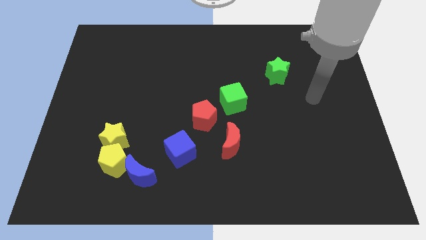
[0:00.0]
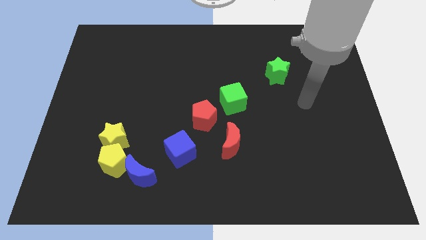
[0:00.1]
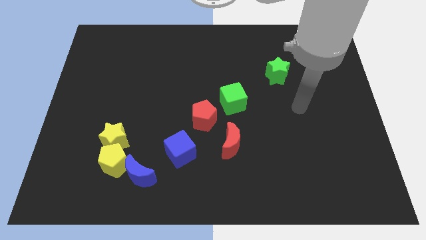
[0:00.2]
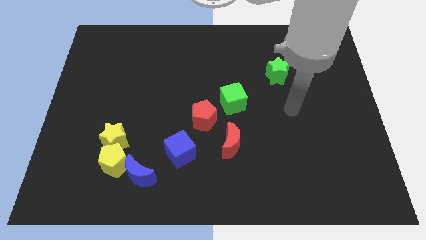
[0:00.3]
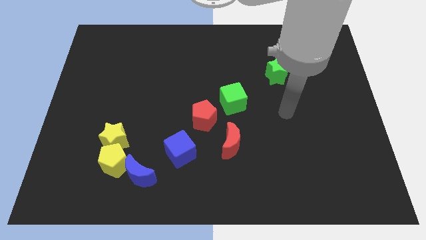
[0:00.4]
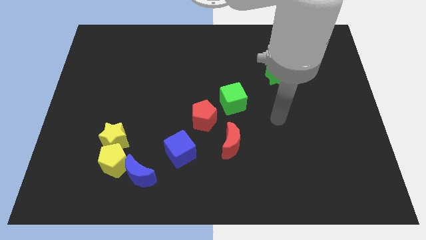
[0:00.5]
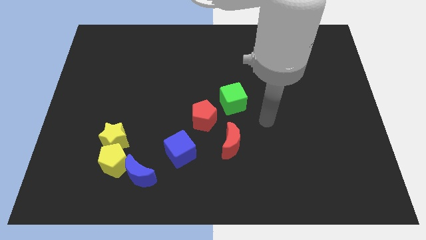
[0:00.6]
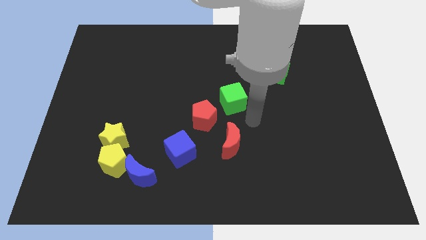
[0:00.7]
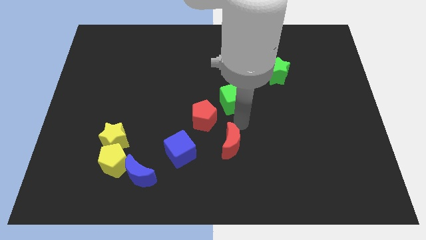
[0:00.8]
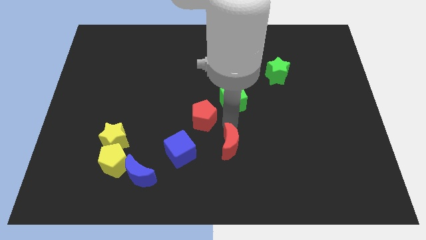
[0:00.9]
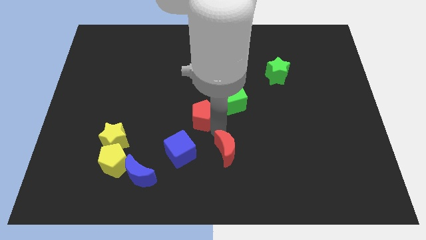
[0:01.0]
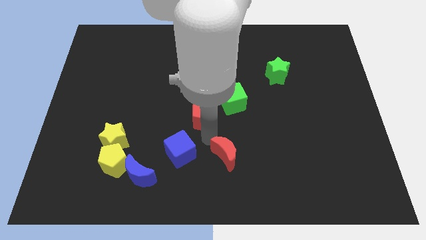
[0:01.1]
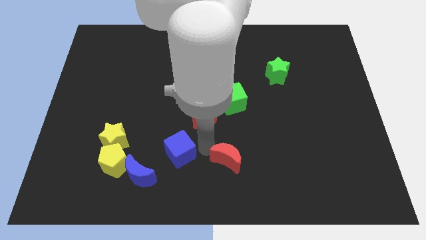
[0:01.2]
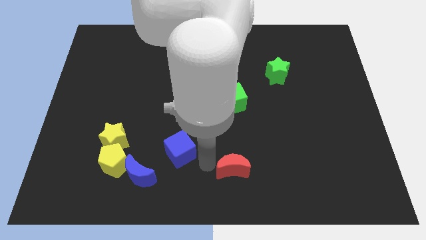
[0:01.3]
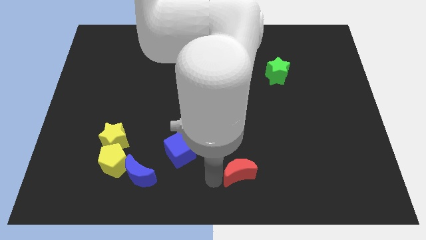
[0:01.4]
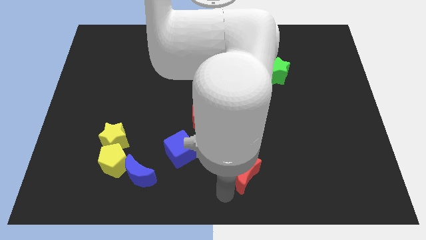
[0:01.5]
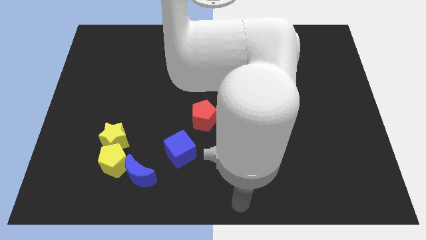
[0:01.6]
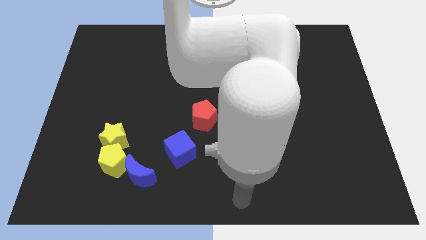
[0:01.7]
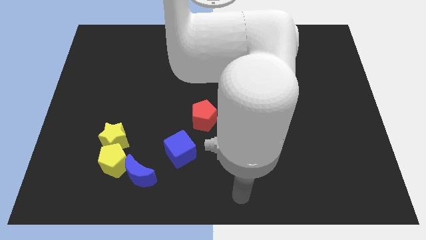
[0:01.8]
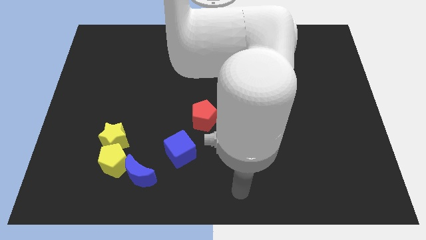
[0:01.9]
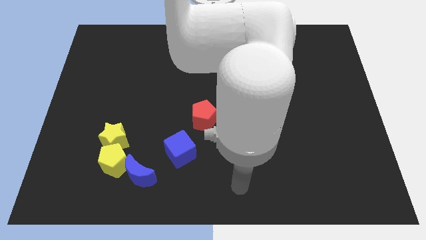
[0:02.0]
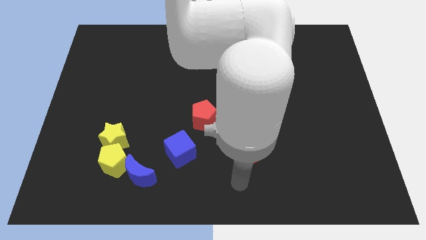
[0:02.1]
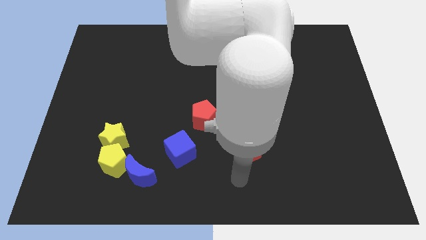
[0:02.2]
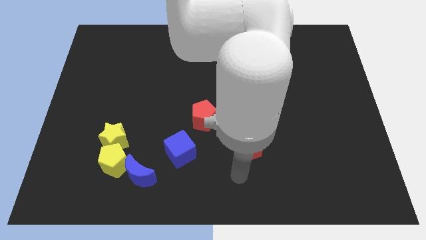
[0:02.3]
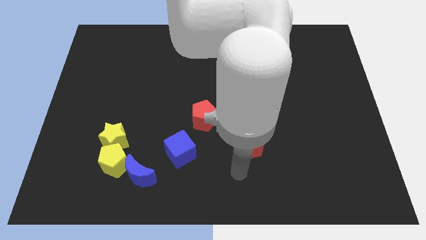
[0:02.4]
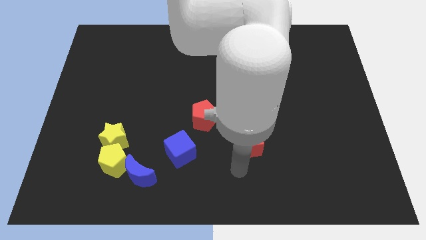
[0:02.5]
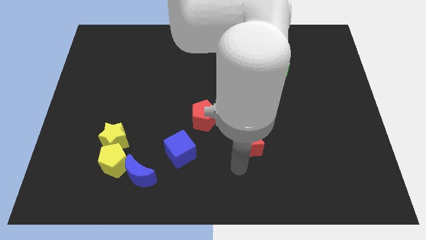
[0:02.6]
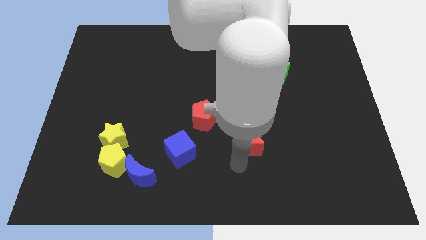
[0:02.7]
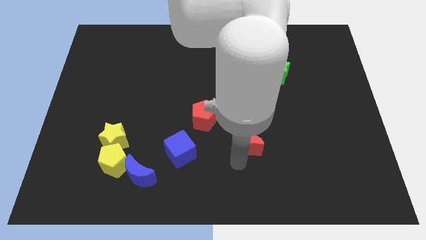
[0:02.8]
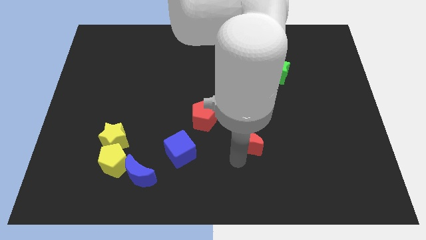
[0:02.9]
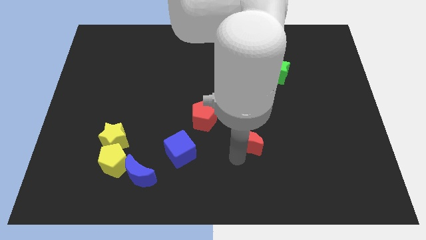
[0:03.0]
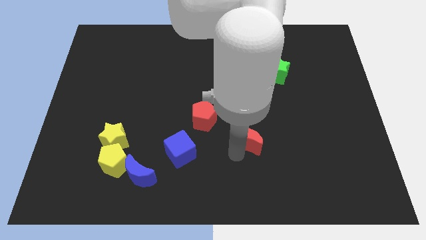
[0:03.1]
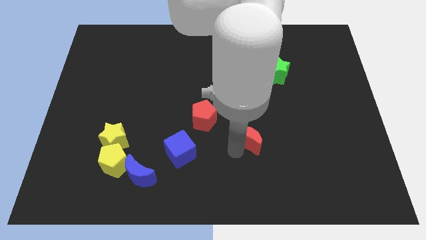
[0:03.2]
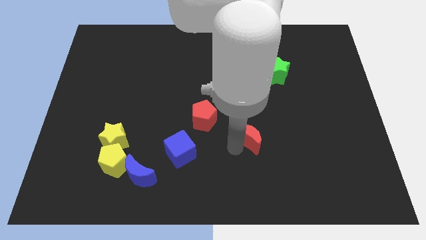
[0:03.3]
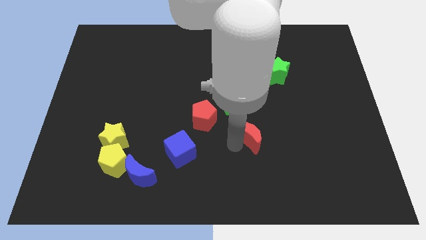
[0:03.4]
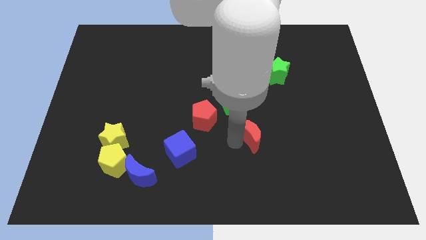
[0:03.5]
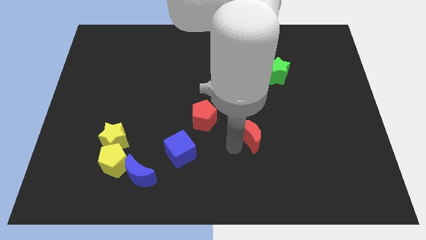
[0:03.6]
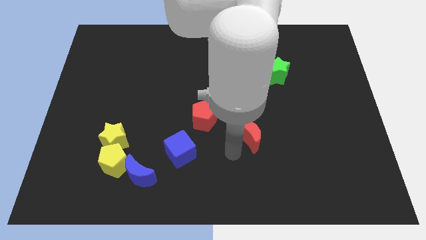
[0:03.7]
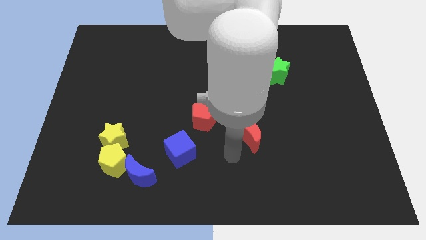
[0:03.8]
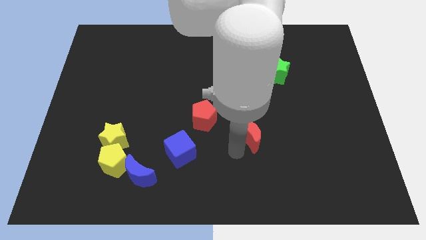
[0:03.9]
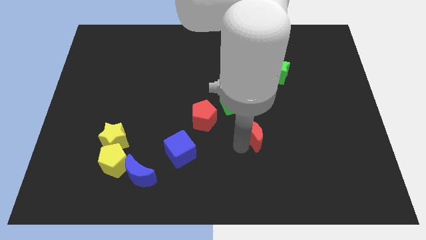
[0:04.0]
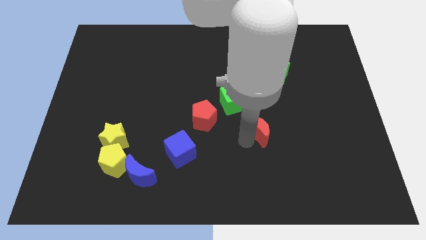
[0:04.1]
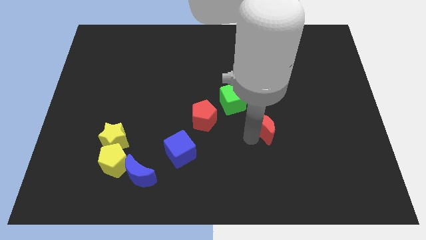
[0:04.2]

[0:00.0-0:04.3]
push the red moon up and then to the right a little

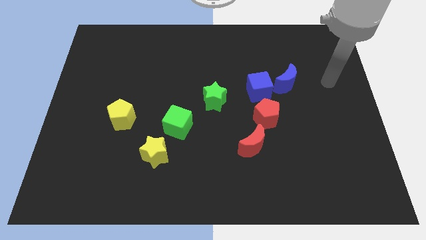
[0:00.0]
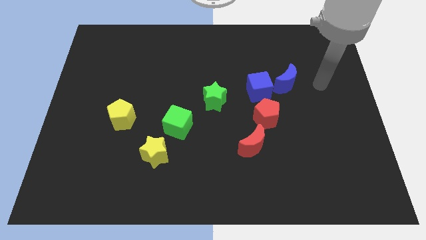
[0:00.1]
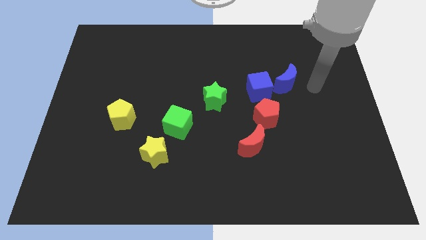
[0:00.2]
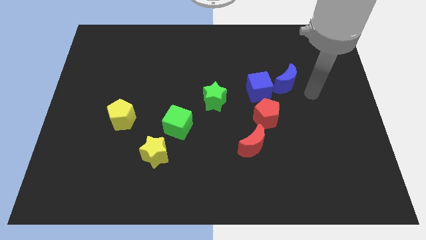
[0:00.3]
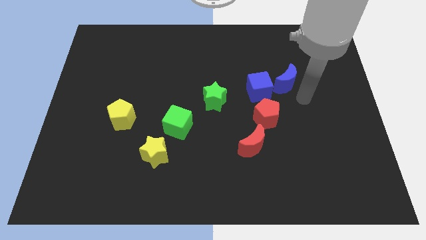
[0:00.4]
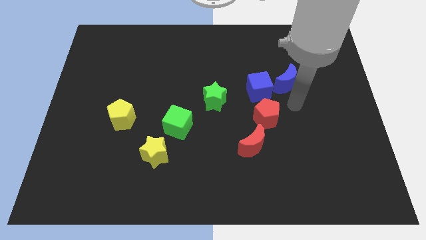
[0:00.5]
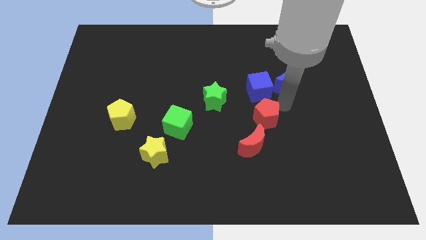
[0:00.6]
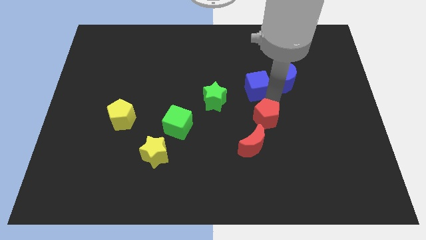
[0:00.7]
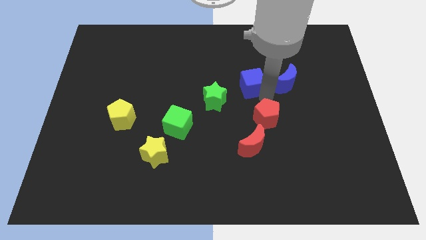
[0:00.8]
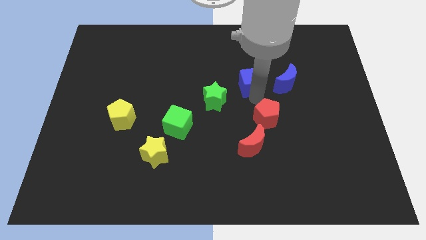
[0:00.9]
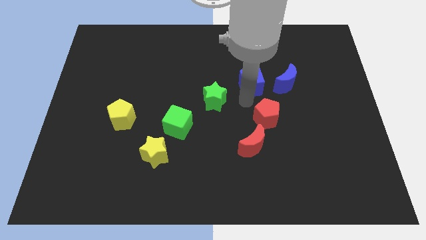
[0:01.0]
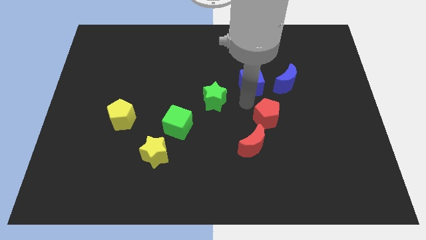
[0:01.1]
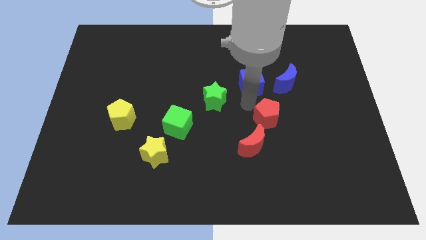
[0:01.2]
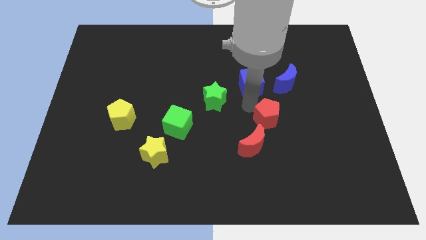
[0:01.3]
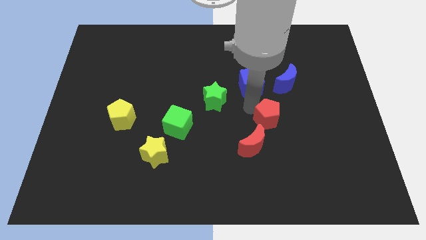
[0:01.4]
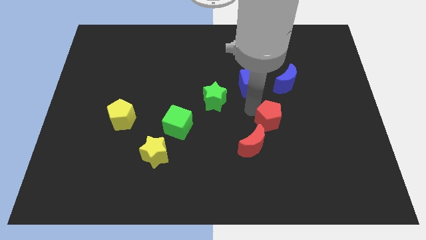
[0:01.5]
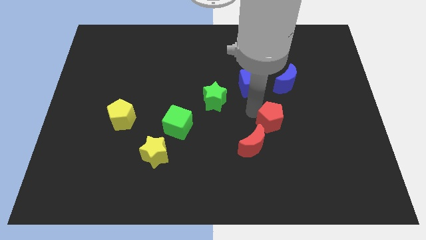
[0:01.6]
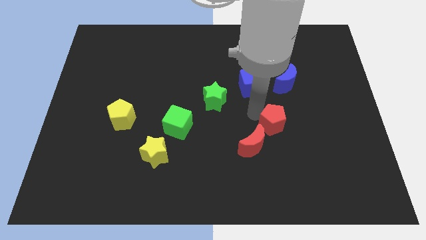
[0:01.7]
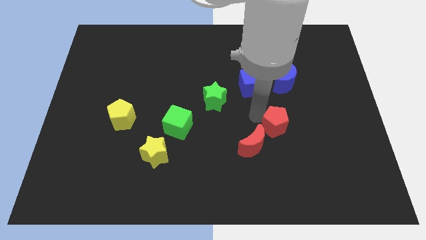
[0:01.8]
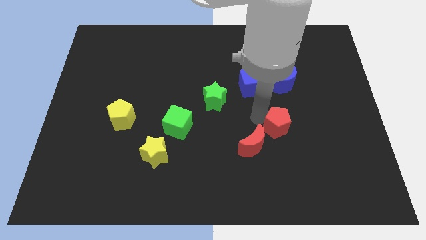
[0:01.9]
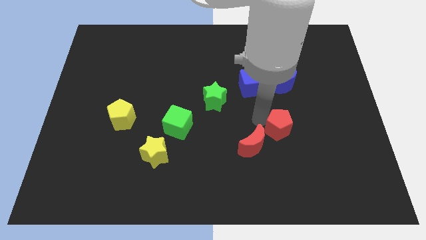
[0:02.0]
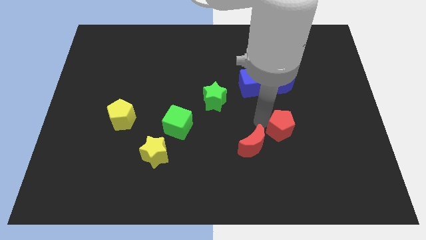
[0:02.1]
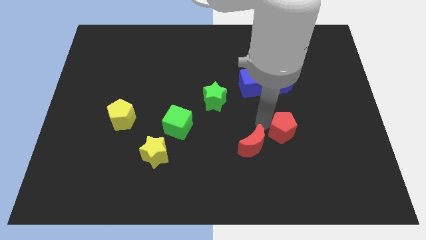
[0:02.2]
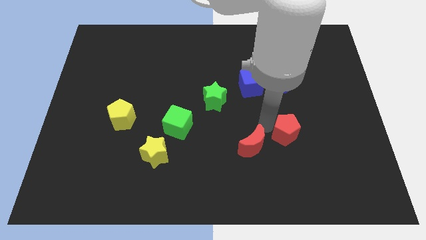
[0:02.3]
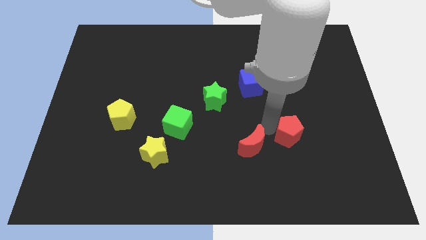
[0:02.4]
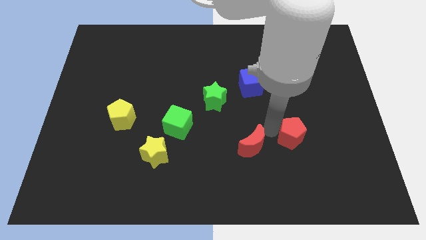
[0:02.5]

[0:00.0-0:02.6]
slightly slide the red pentagon diagonally downwards and to the right

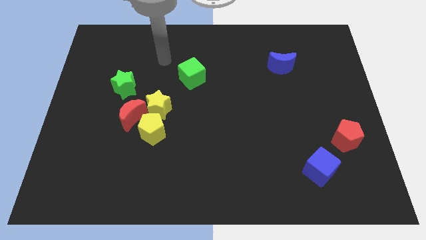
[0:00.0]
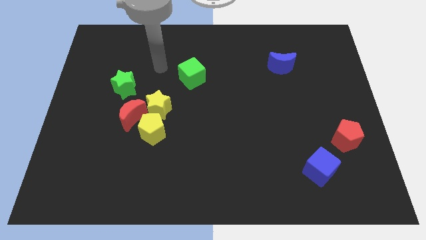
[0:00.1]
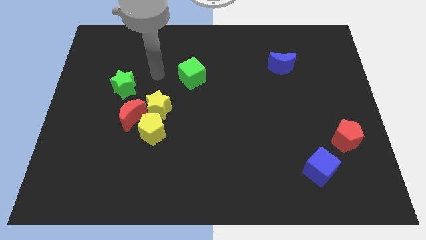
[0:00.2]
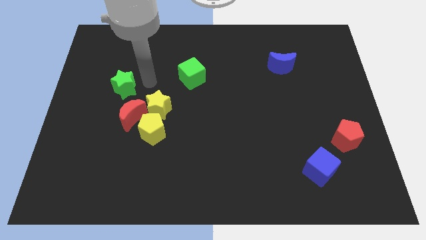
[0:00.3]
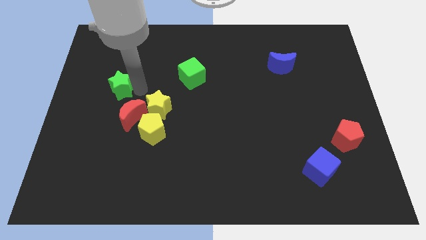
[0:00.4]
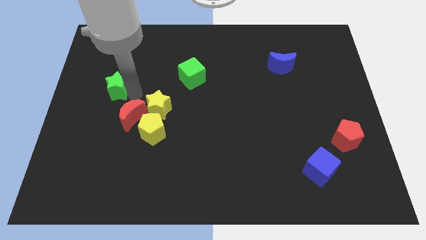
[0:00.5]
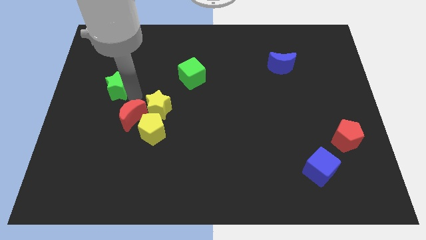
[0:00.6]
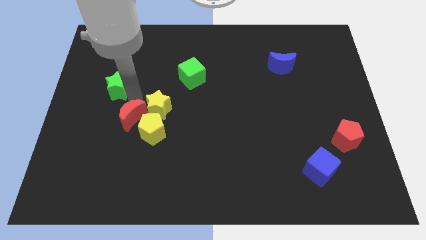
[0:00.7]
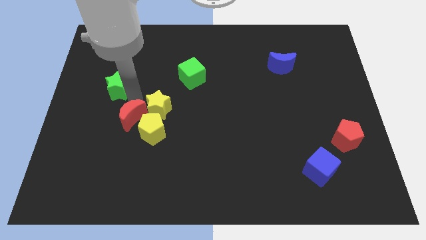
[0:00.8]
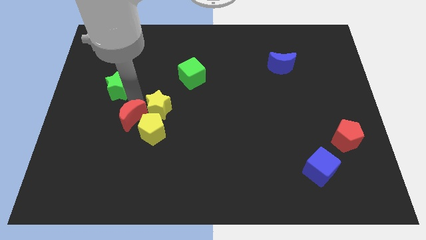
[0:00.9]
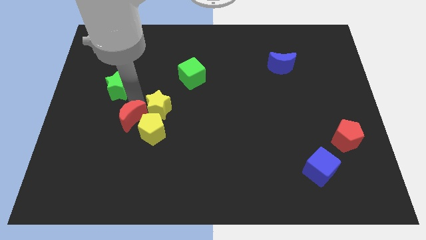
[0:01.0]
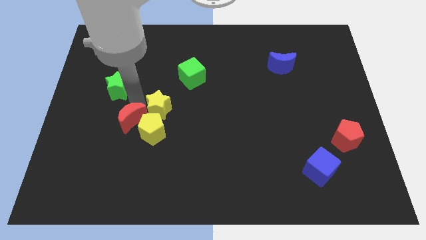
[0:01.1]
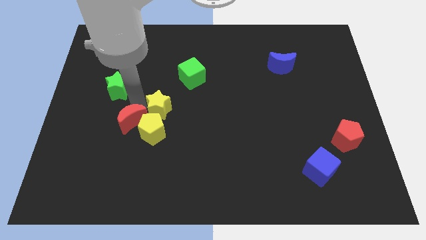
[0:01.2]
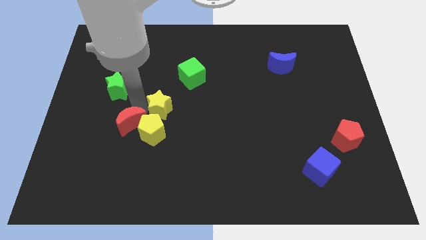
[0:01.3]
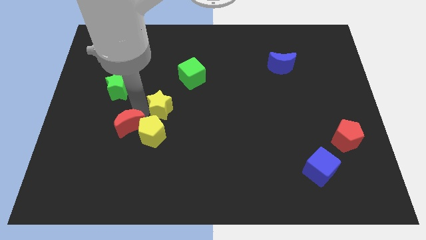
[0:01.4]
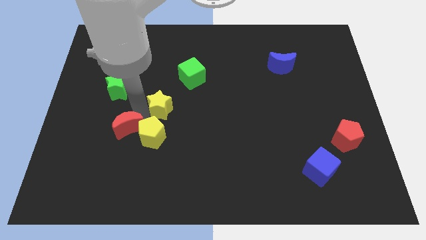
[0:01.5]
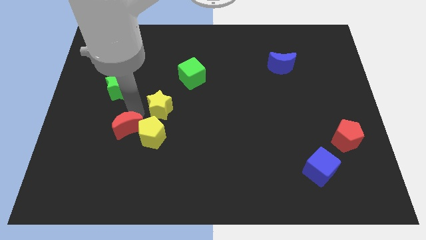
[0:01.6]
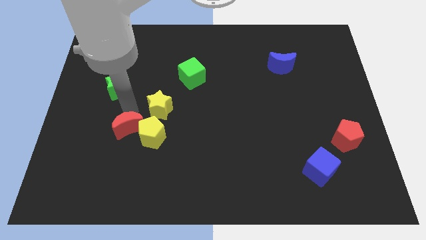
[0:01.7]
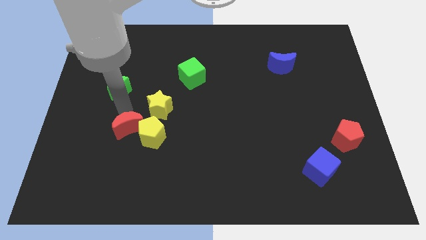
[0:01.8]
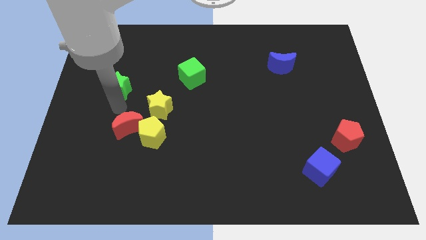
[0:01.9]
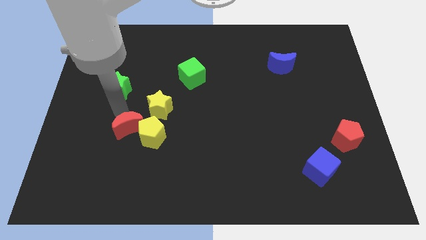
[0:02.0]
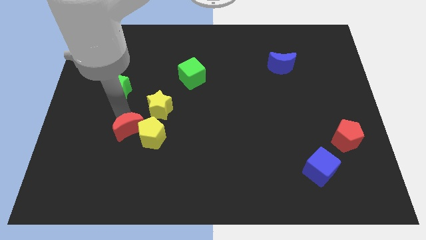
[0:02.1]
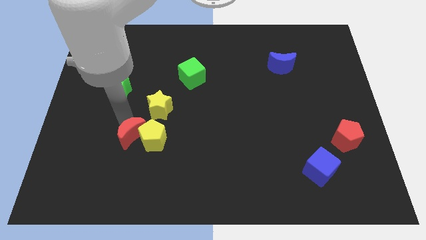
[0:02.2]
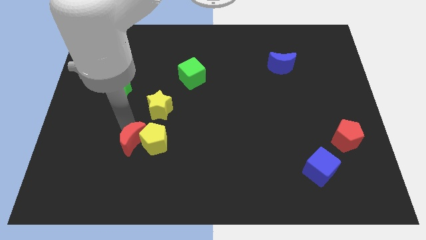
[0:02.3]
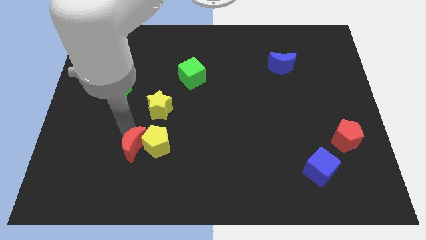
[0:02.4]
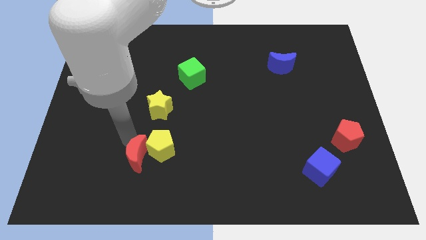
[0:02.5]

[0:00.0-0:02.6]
move the red moon a bit downwards and to the right
